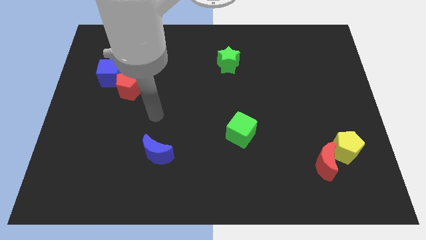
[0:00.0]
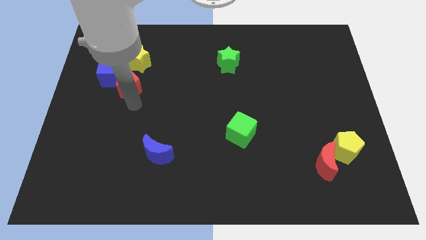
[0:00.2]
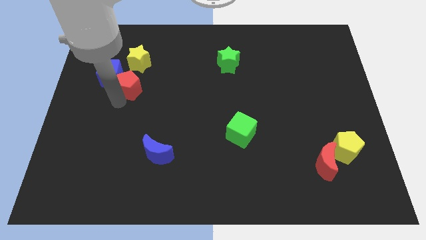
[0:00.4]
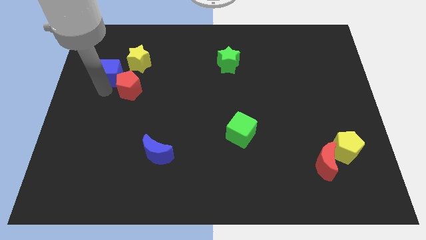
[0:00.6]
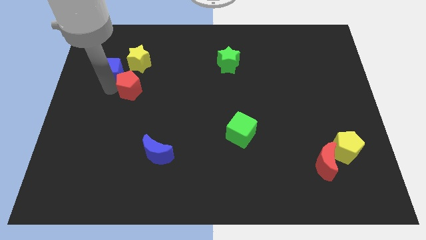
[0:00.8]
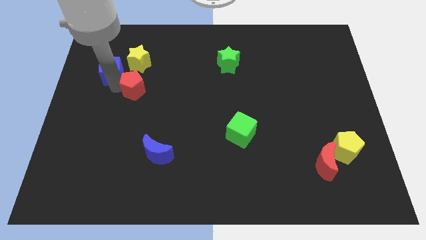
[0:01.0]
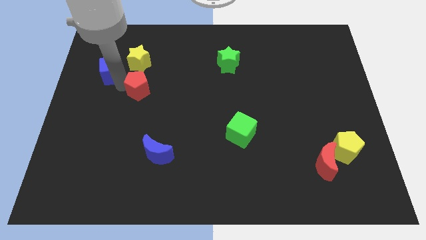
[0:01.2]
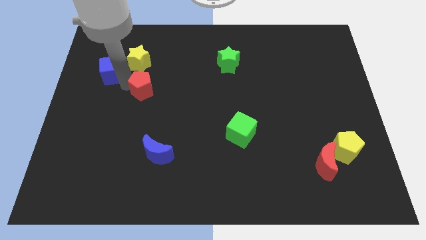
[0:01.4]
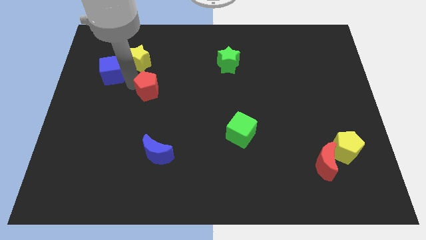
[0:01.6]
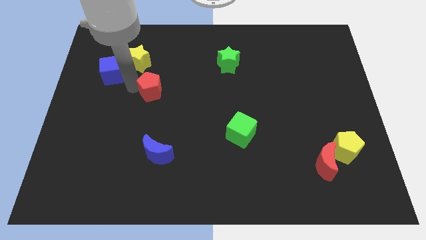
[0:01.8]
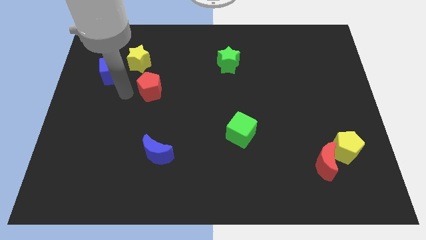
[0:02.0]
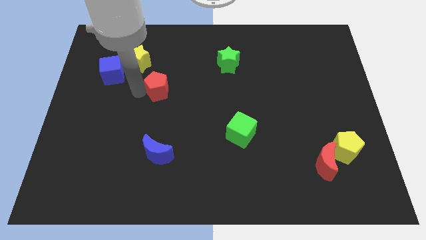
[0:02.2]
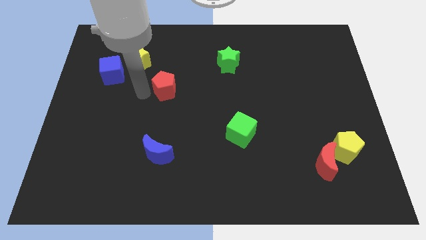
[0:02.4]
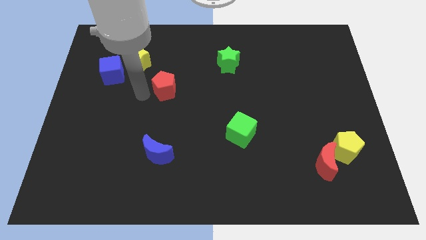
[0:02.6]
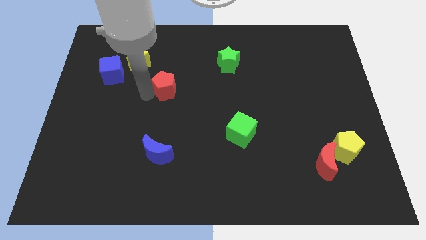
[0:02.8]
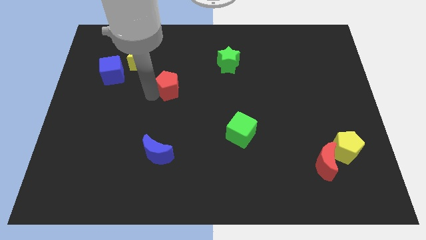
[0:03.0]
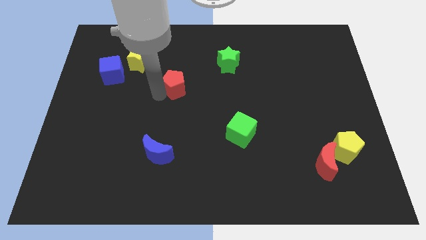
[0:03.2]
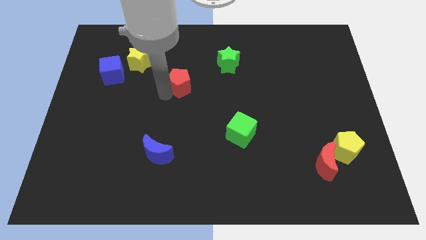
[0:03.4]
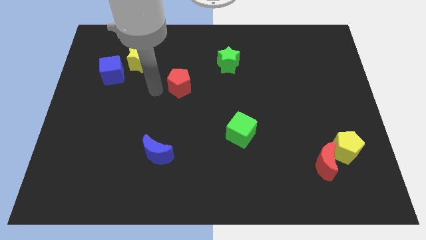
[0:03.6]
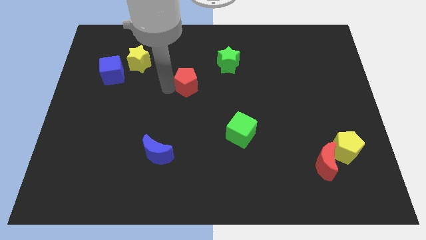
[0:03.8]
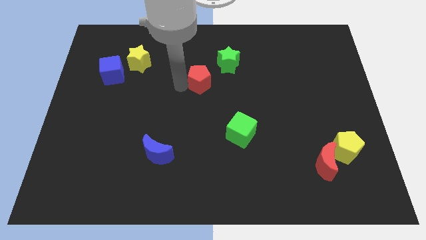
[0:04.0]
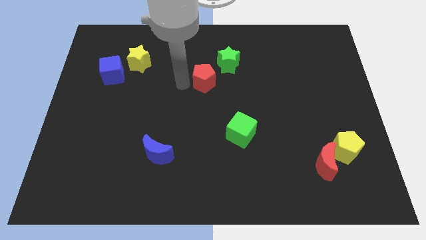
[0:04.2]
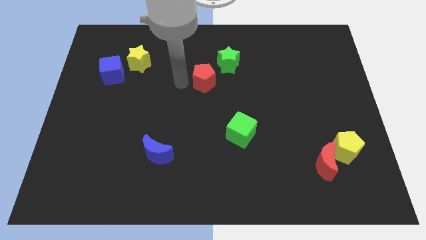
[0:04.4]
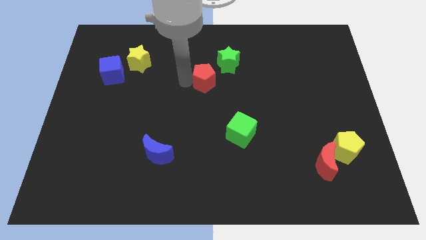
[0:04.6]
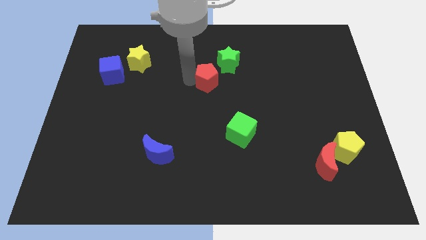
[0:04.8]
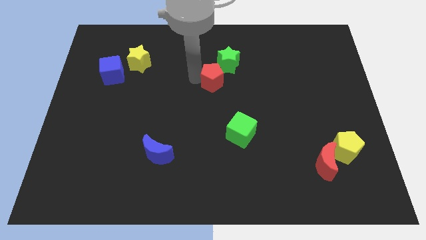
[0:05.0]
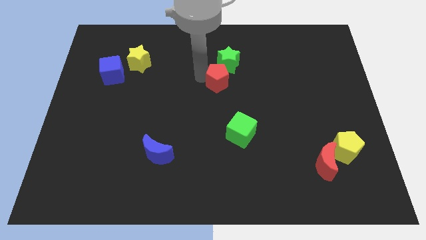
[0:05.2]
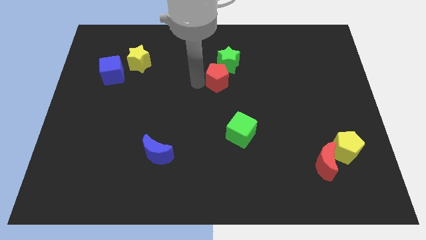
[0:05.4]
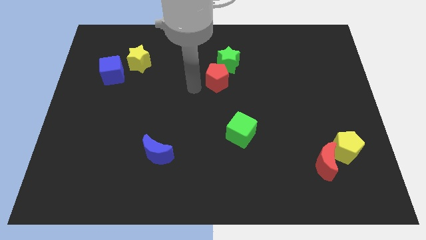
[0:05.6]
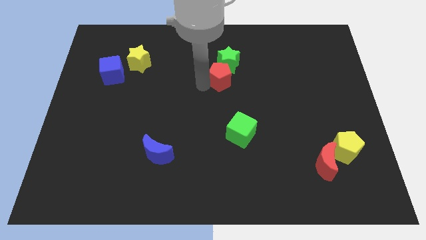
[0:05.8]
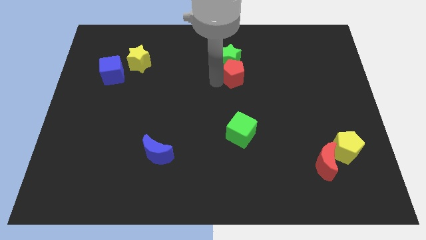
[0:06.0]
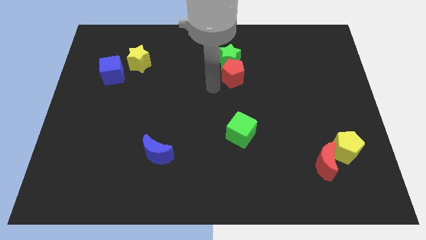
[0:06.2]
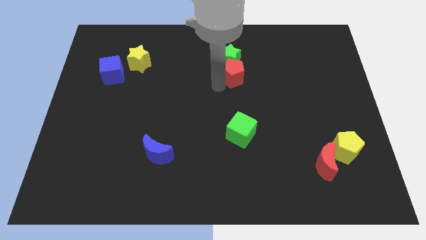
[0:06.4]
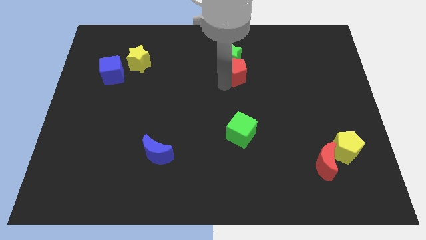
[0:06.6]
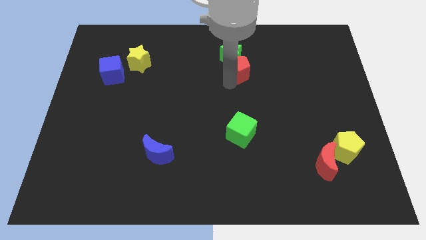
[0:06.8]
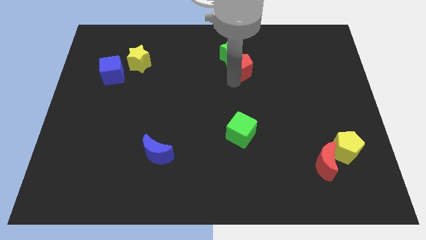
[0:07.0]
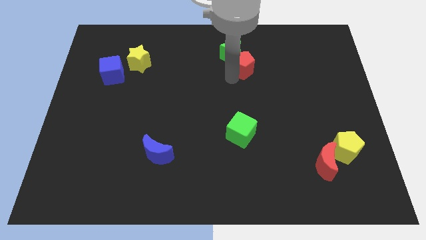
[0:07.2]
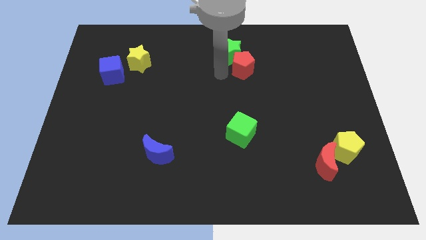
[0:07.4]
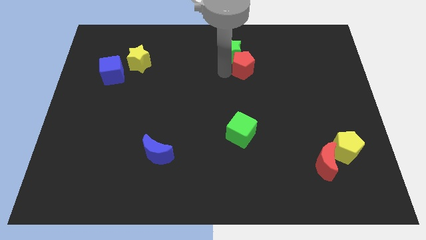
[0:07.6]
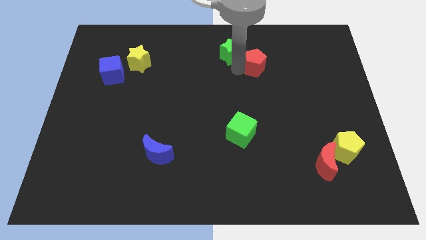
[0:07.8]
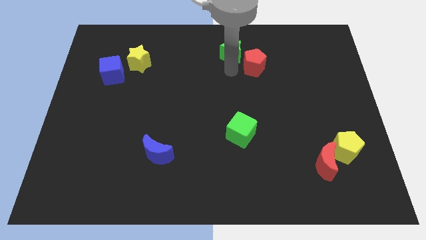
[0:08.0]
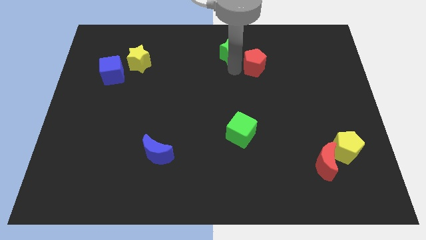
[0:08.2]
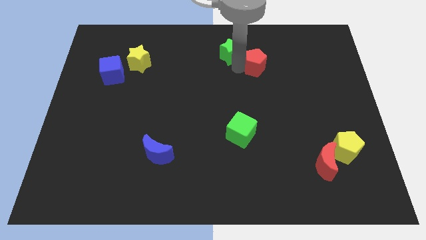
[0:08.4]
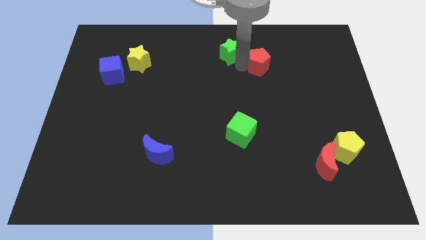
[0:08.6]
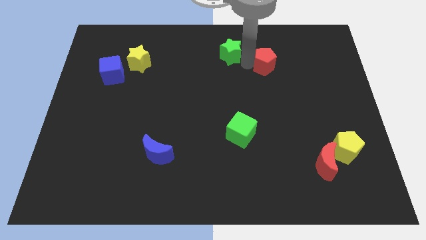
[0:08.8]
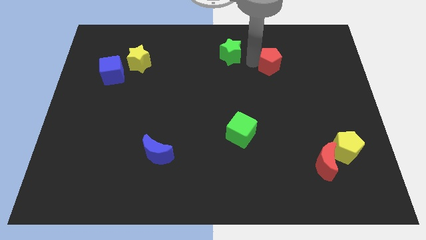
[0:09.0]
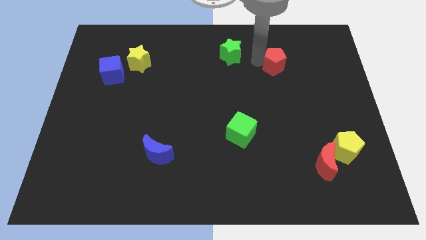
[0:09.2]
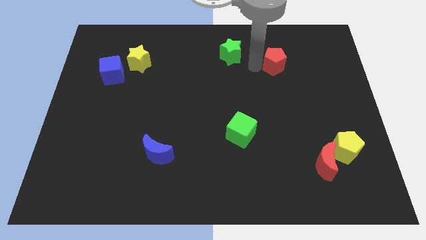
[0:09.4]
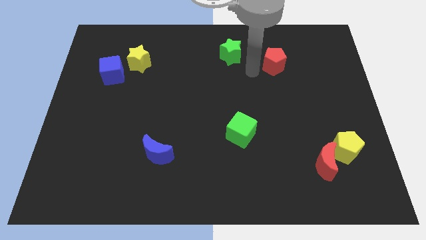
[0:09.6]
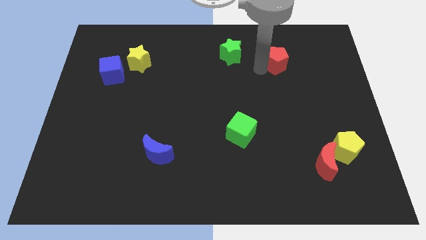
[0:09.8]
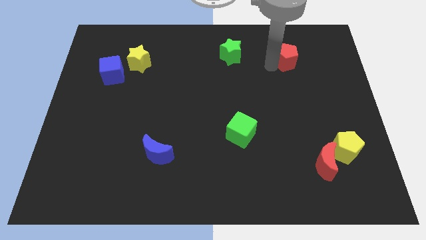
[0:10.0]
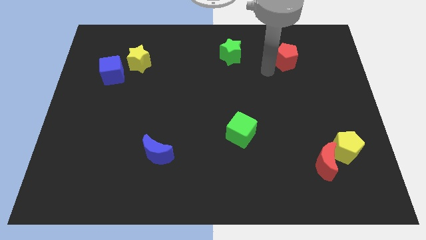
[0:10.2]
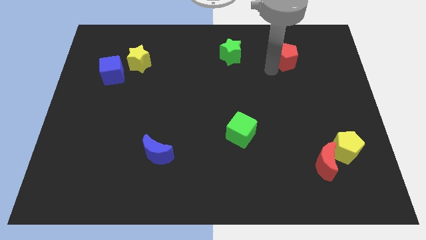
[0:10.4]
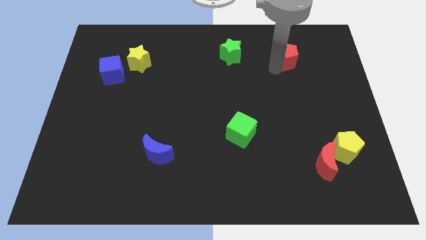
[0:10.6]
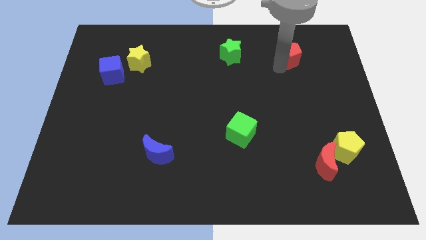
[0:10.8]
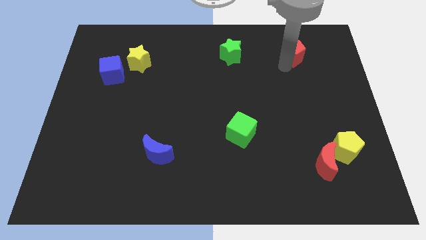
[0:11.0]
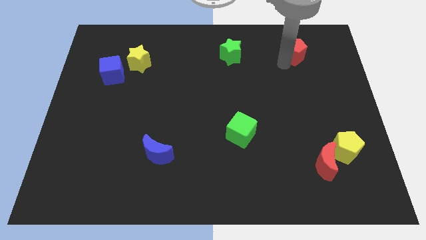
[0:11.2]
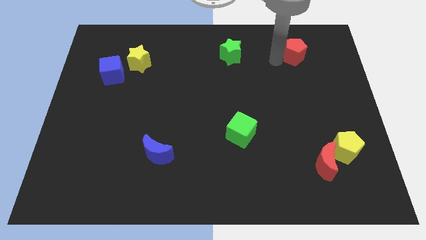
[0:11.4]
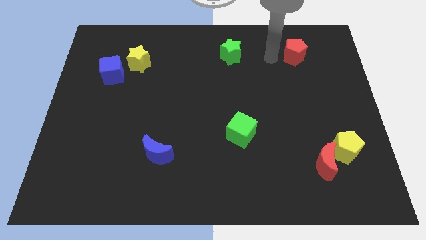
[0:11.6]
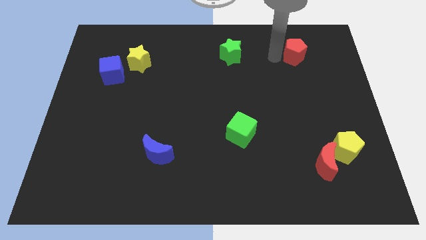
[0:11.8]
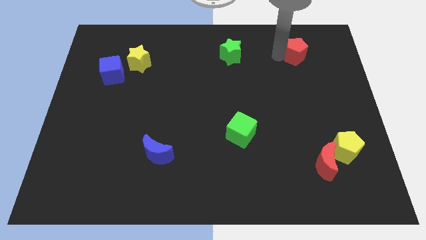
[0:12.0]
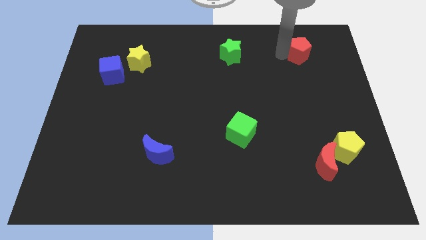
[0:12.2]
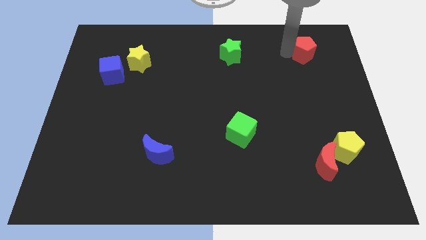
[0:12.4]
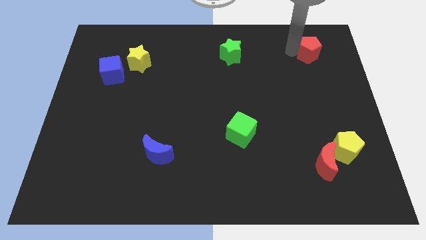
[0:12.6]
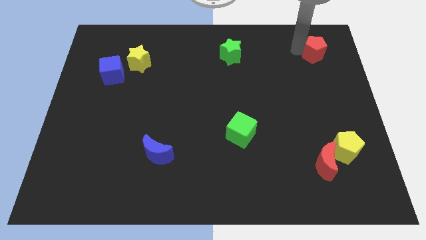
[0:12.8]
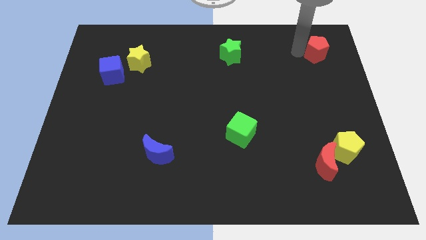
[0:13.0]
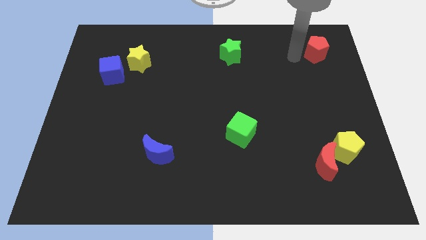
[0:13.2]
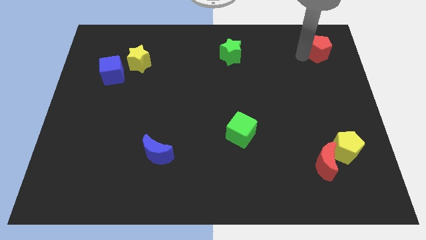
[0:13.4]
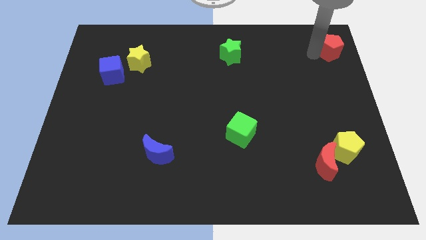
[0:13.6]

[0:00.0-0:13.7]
slide the red pentagon to the top right
